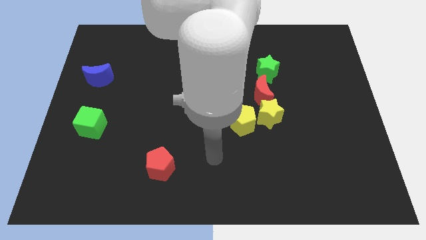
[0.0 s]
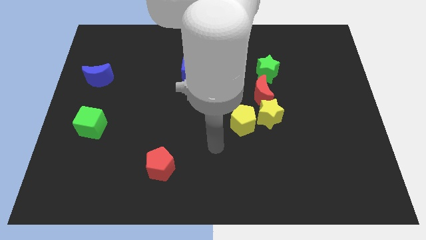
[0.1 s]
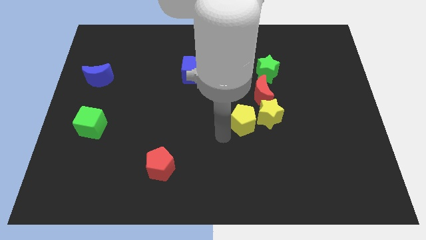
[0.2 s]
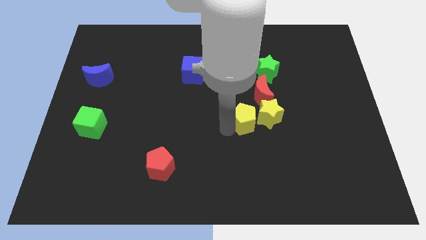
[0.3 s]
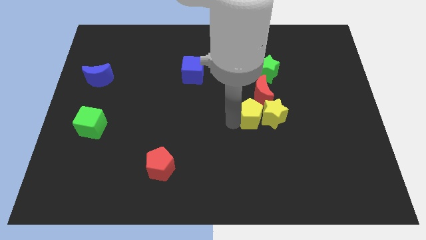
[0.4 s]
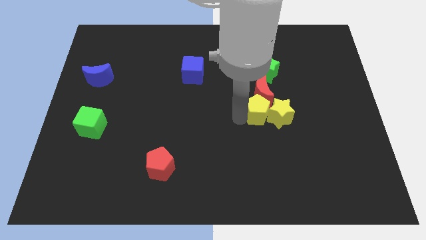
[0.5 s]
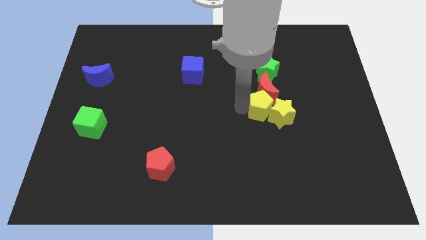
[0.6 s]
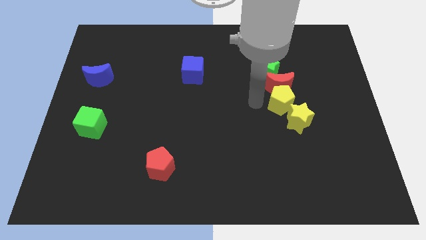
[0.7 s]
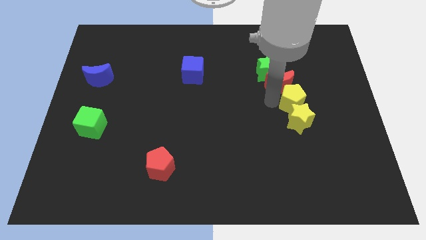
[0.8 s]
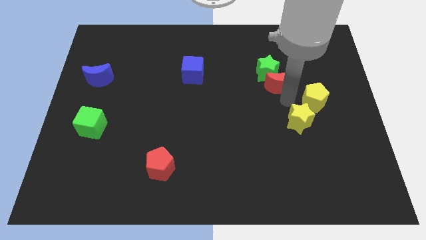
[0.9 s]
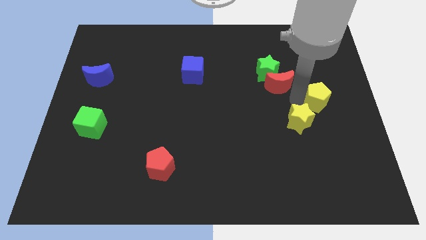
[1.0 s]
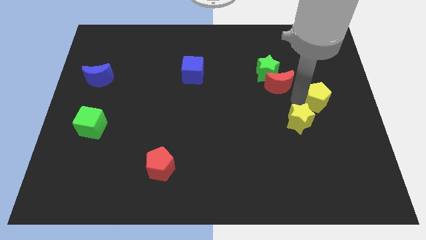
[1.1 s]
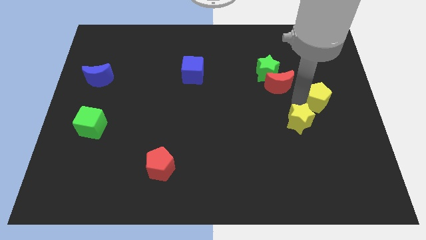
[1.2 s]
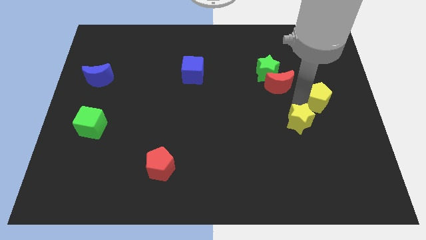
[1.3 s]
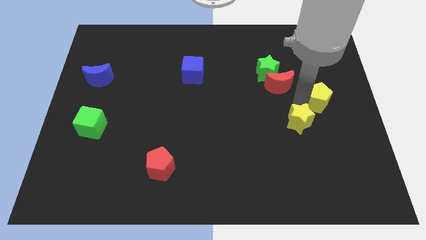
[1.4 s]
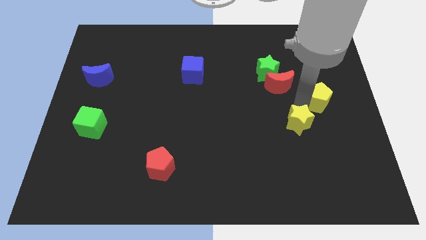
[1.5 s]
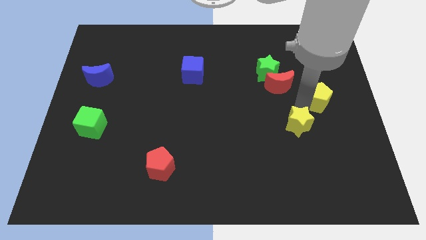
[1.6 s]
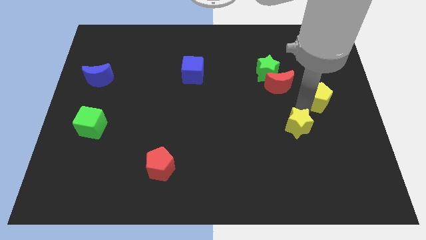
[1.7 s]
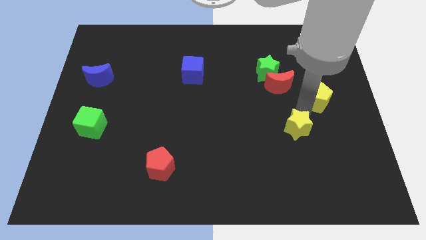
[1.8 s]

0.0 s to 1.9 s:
pull the yellow star apart from the yellow pentagon and red moon

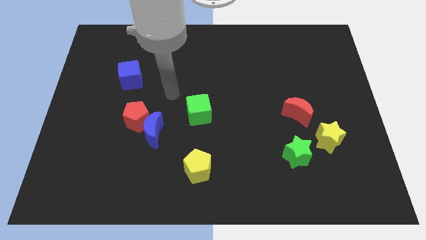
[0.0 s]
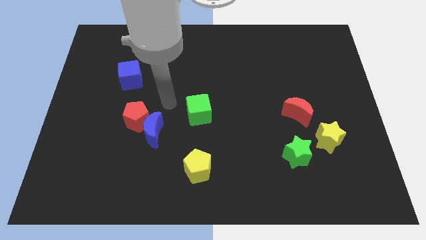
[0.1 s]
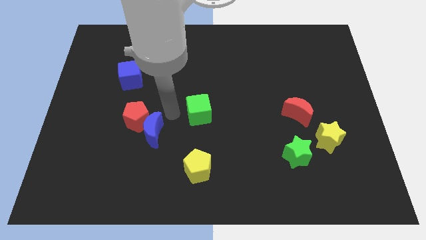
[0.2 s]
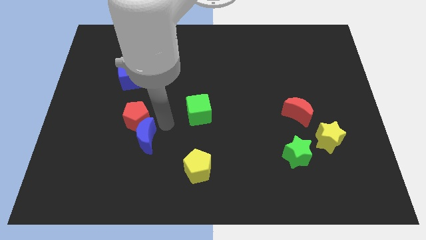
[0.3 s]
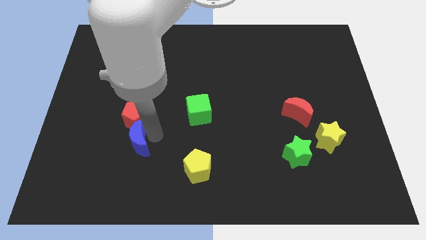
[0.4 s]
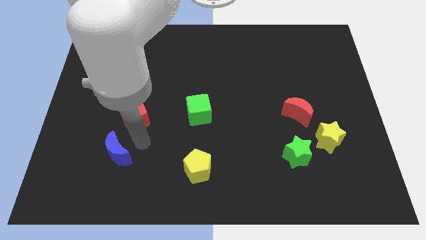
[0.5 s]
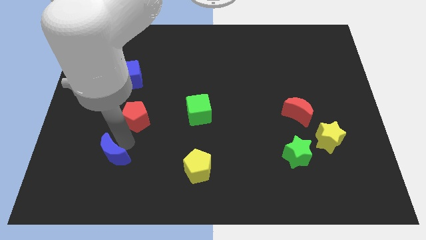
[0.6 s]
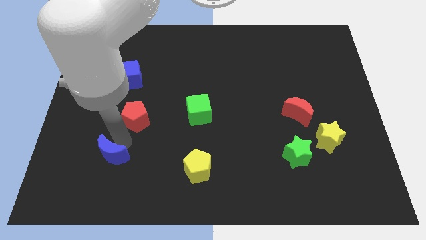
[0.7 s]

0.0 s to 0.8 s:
move the red pentagon away from the blue moon

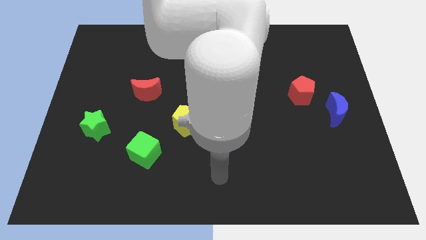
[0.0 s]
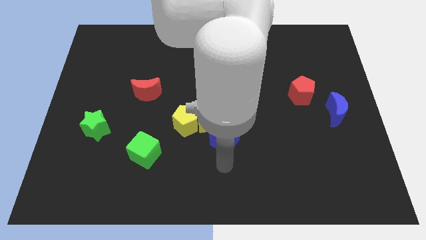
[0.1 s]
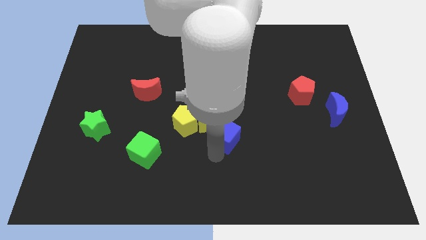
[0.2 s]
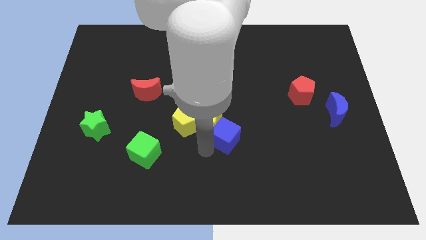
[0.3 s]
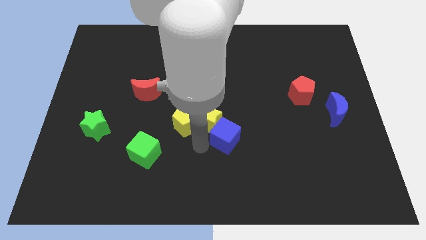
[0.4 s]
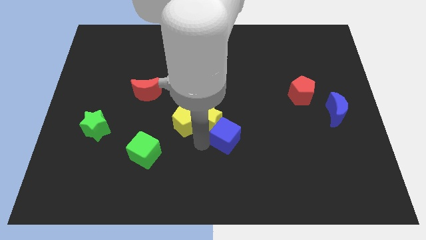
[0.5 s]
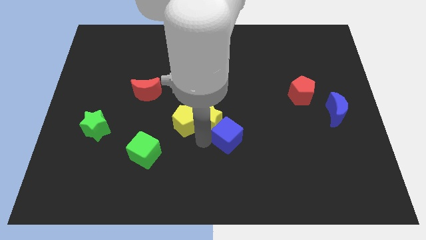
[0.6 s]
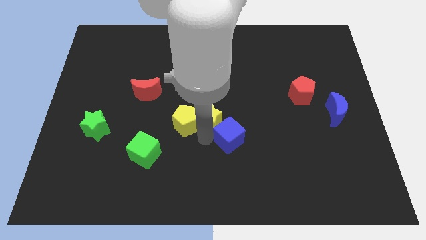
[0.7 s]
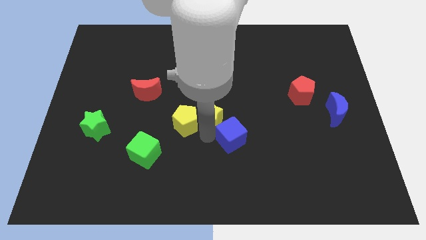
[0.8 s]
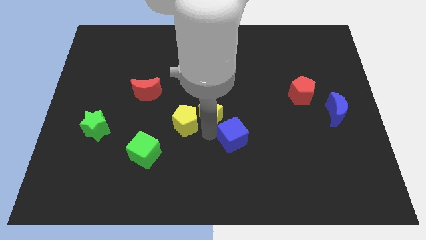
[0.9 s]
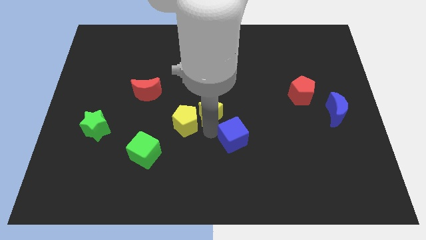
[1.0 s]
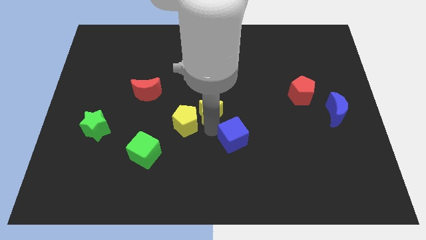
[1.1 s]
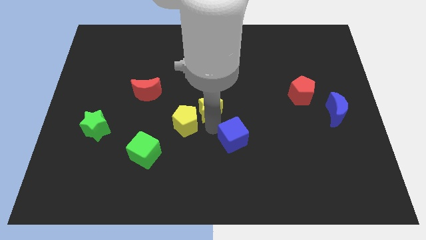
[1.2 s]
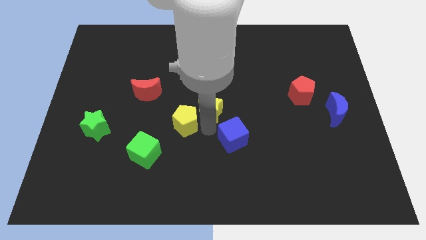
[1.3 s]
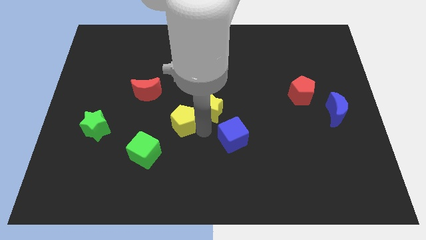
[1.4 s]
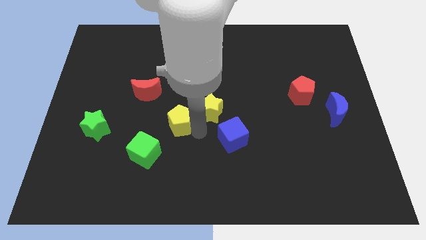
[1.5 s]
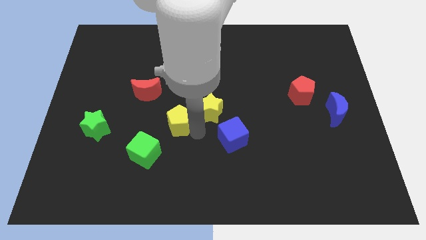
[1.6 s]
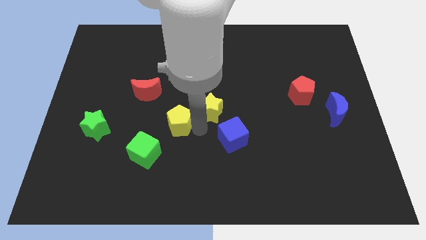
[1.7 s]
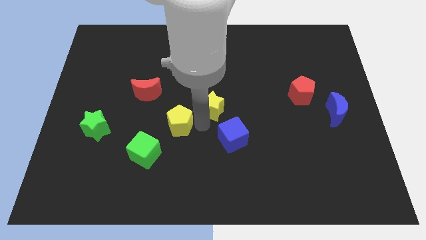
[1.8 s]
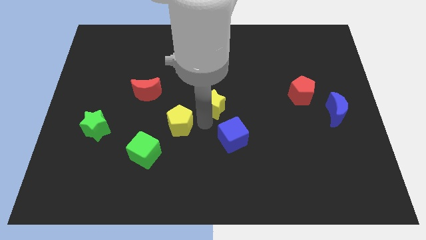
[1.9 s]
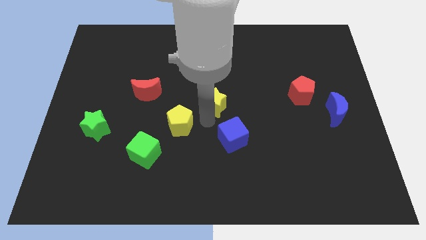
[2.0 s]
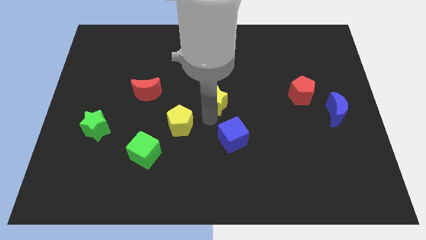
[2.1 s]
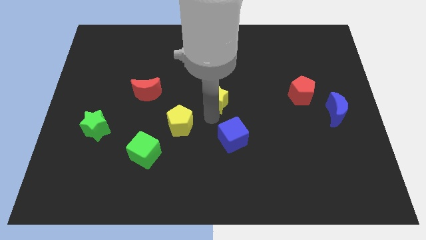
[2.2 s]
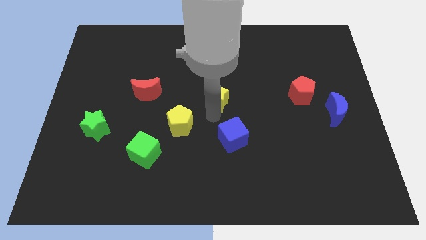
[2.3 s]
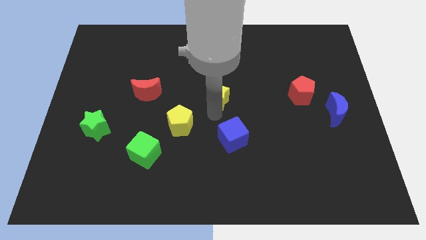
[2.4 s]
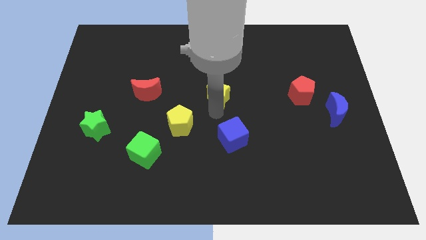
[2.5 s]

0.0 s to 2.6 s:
separate the yellow star from the yellow pentagon and blue cube

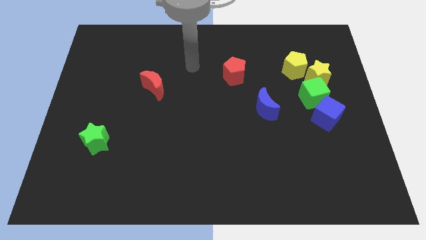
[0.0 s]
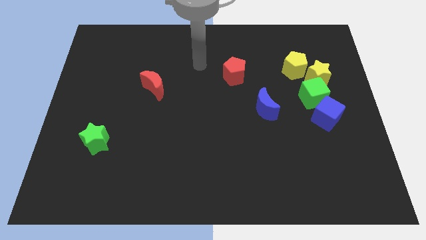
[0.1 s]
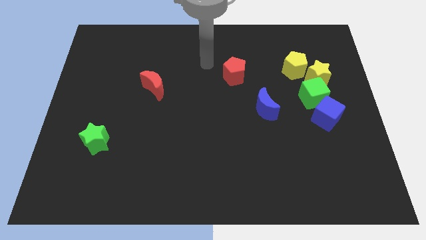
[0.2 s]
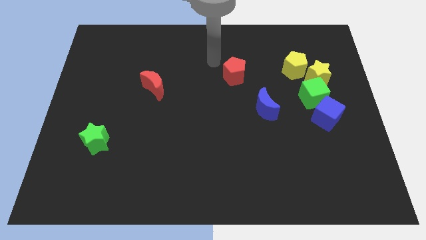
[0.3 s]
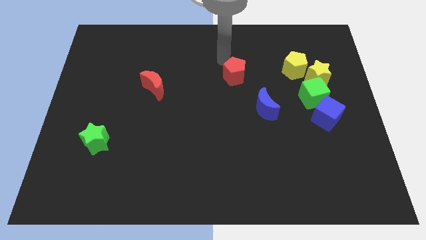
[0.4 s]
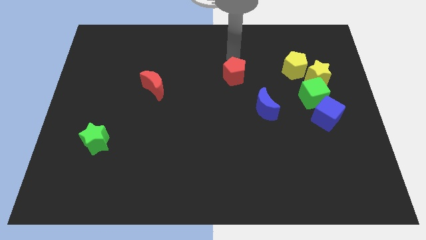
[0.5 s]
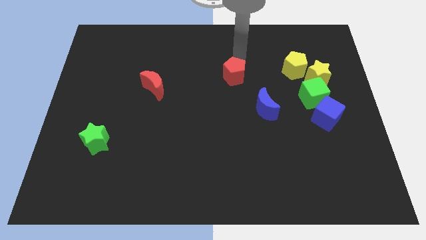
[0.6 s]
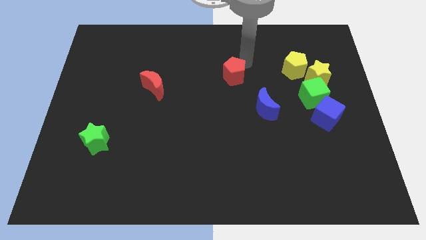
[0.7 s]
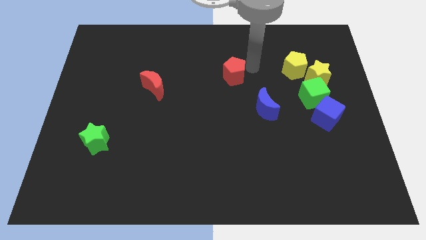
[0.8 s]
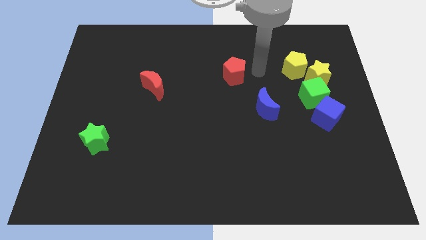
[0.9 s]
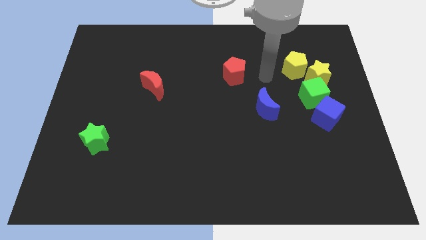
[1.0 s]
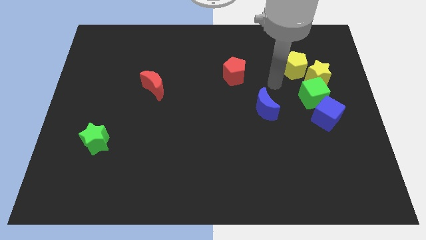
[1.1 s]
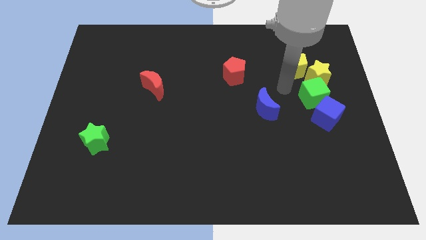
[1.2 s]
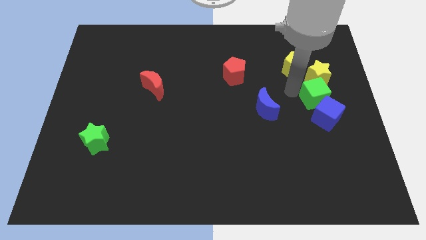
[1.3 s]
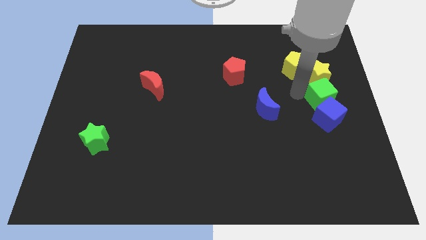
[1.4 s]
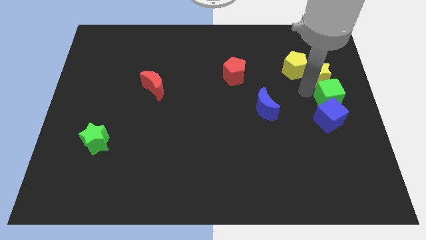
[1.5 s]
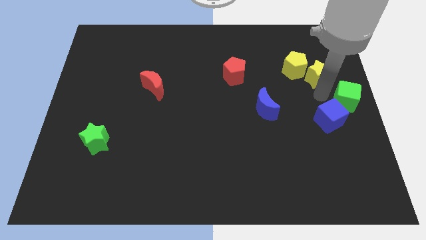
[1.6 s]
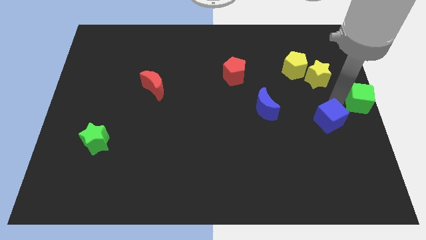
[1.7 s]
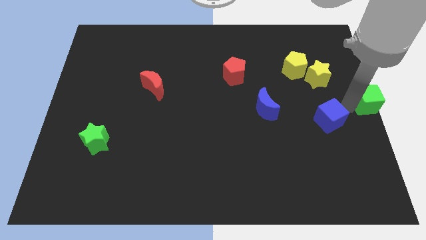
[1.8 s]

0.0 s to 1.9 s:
pull the blue cube apart from the green cube

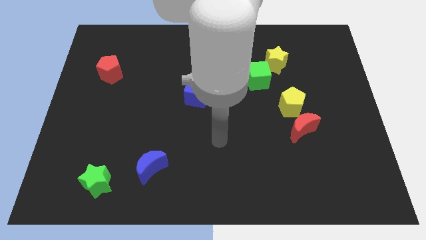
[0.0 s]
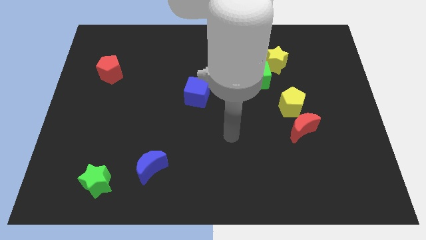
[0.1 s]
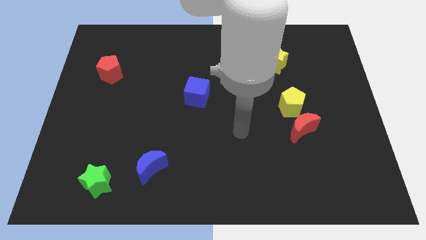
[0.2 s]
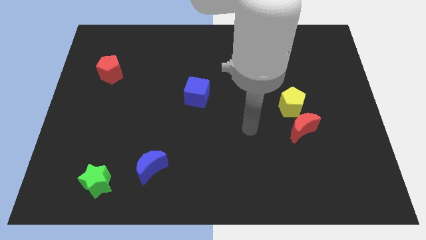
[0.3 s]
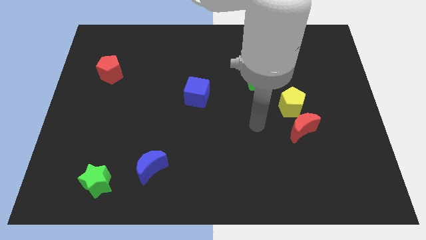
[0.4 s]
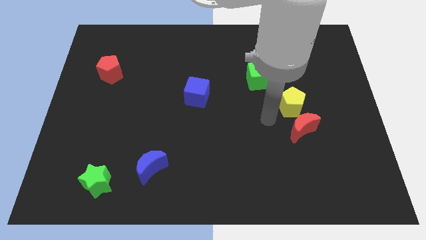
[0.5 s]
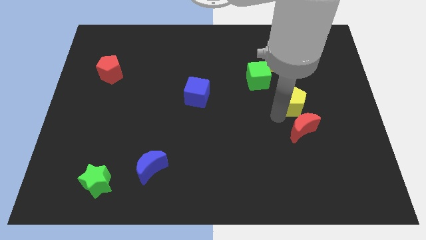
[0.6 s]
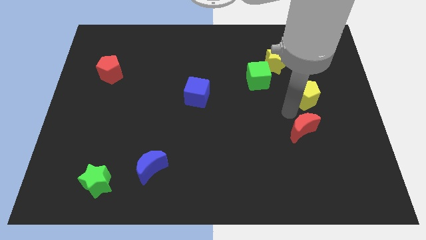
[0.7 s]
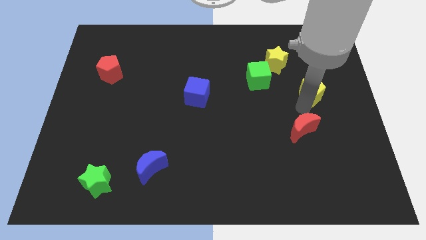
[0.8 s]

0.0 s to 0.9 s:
pull the red moon apart from the yellow pentagon

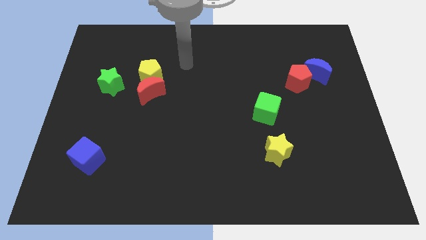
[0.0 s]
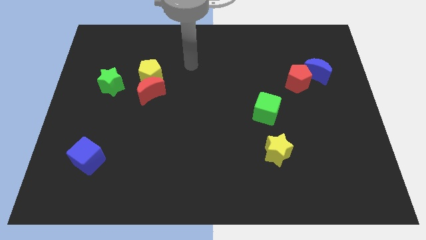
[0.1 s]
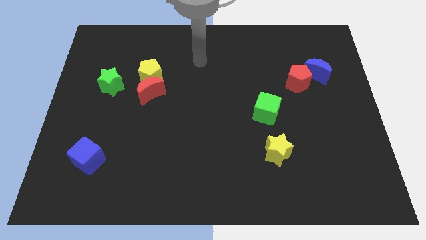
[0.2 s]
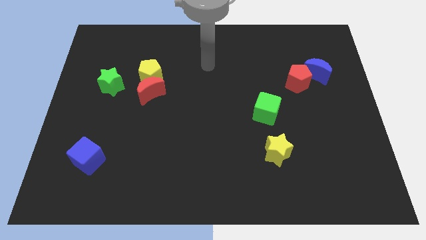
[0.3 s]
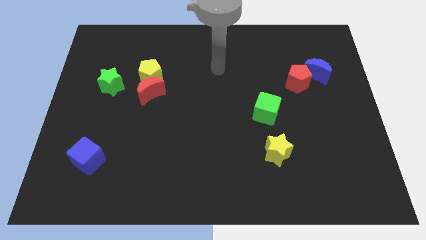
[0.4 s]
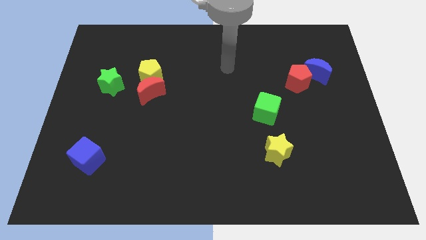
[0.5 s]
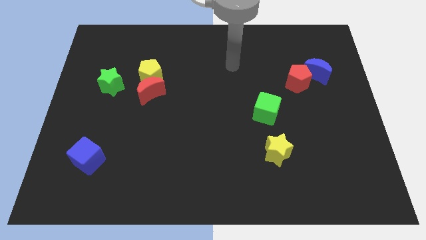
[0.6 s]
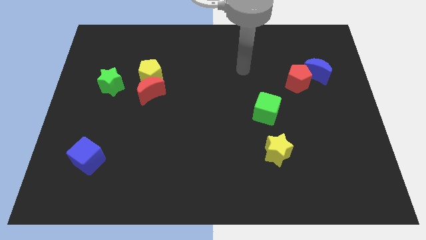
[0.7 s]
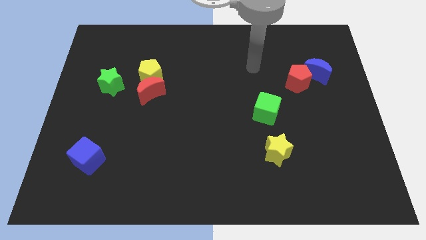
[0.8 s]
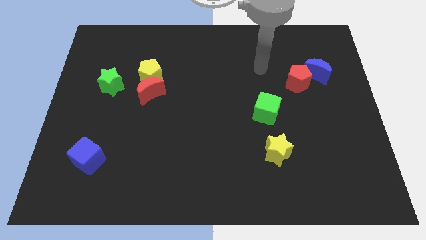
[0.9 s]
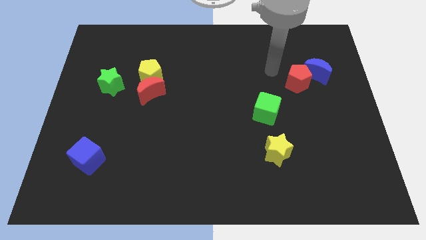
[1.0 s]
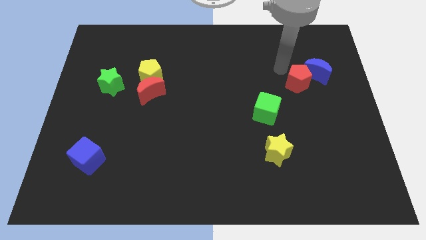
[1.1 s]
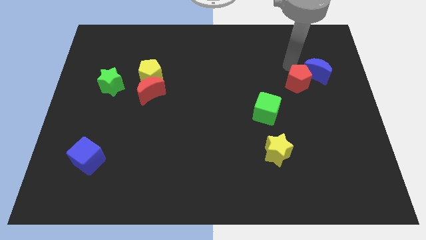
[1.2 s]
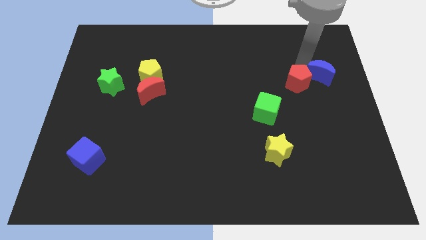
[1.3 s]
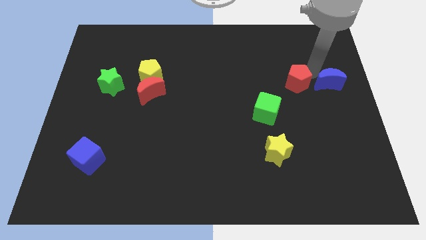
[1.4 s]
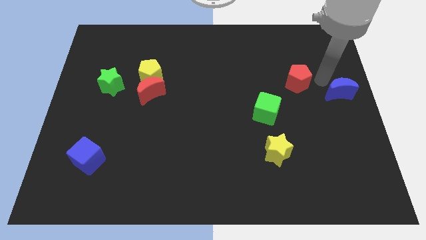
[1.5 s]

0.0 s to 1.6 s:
separate the red pentagon from the blue moon
